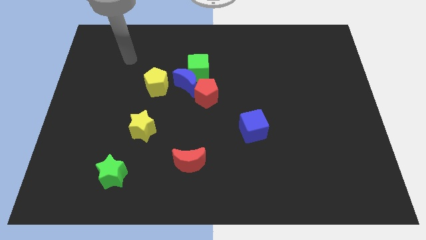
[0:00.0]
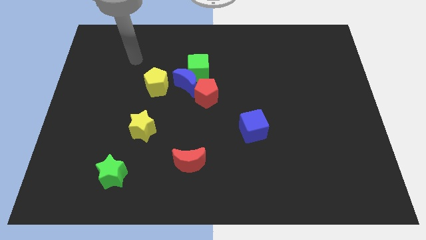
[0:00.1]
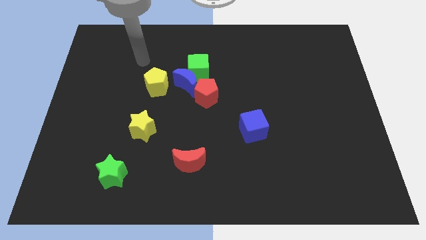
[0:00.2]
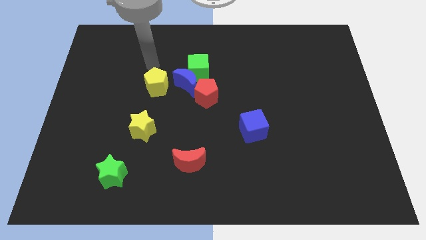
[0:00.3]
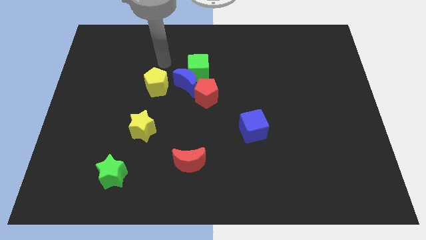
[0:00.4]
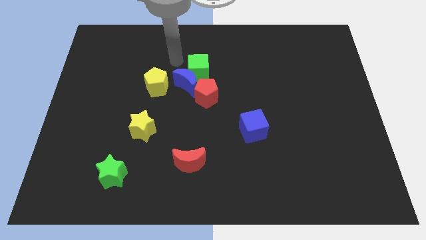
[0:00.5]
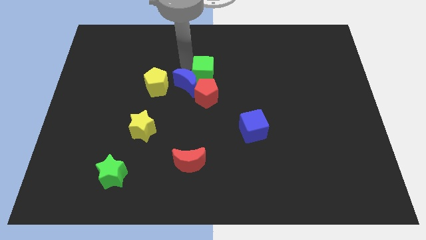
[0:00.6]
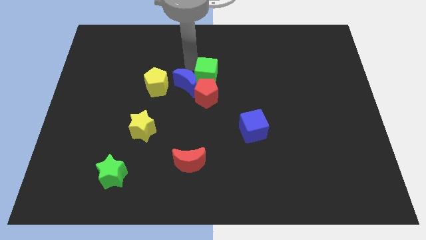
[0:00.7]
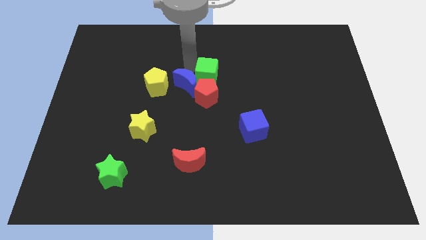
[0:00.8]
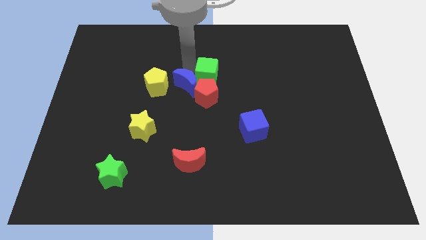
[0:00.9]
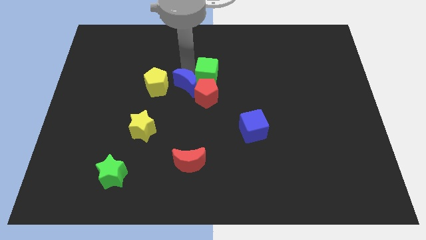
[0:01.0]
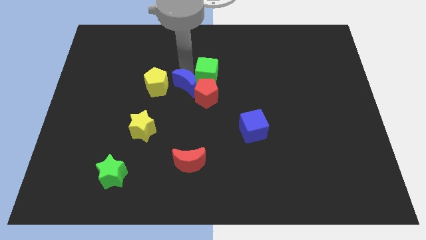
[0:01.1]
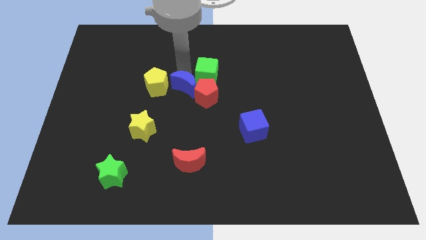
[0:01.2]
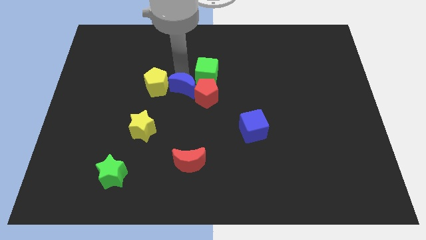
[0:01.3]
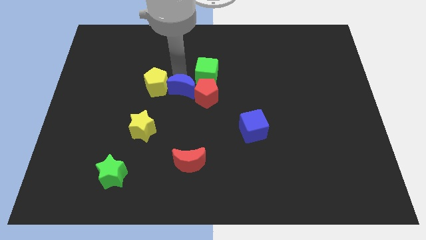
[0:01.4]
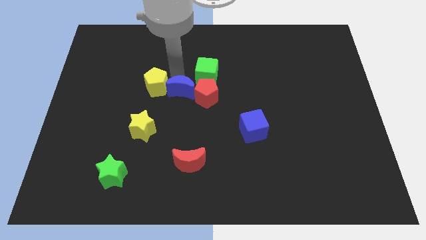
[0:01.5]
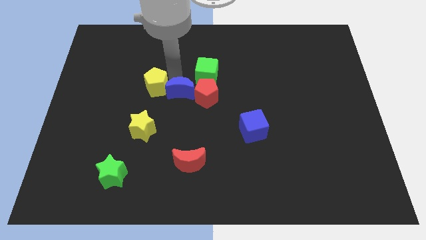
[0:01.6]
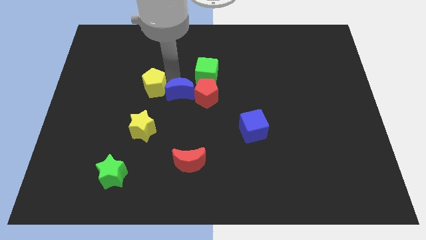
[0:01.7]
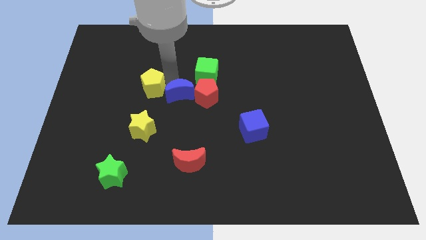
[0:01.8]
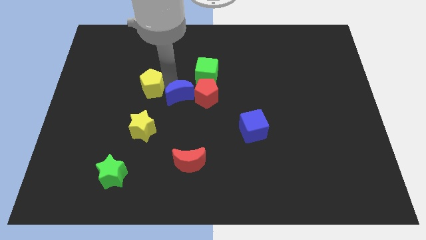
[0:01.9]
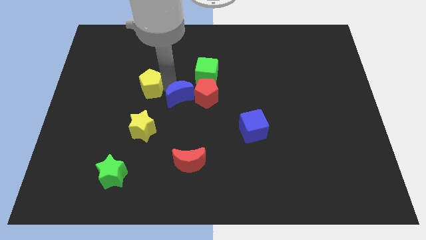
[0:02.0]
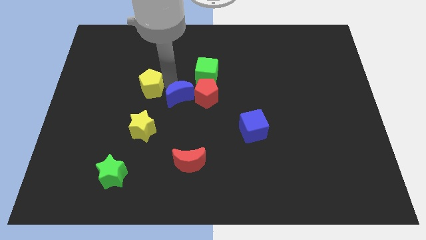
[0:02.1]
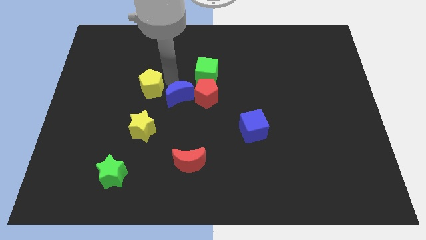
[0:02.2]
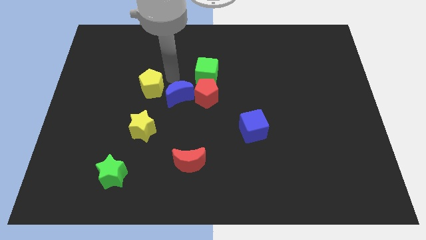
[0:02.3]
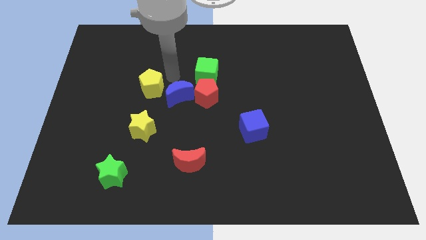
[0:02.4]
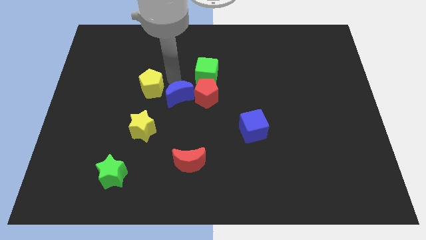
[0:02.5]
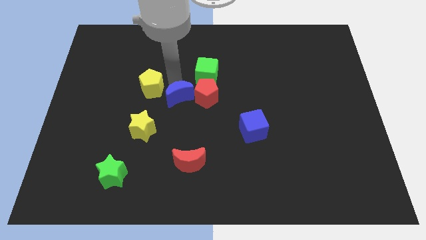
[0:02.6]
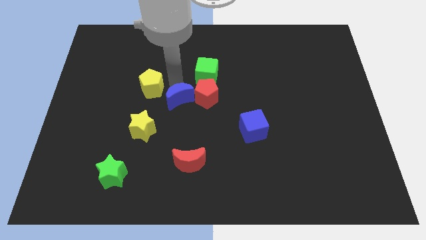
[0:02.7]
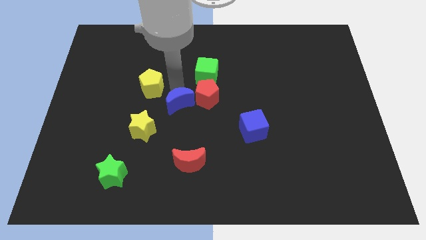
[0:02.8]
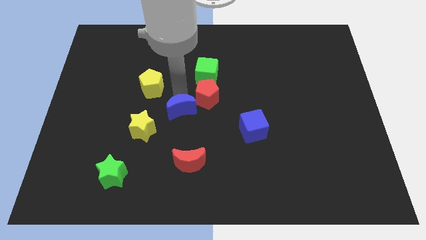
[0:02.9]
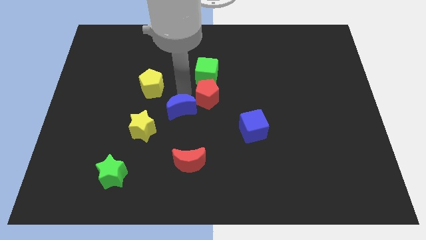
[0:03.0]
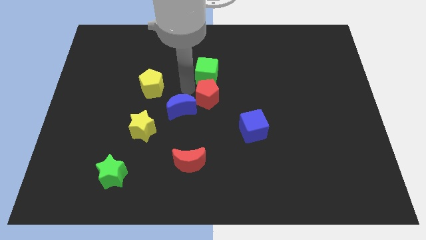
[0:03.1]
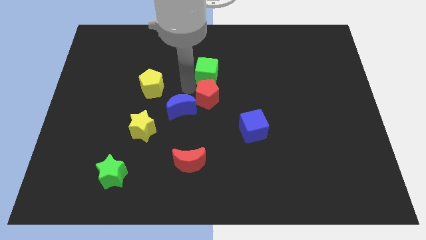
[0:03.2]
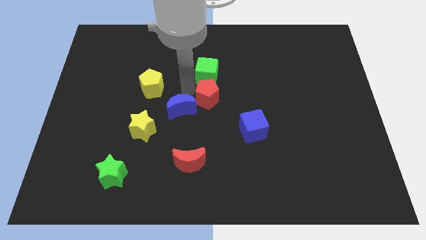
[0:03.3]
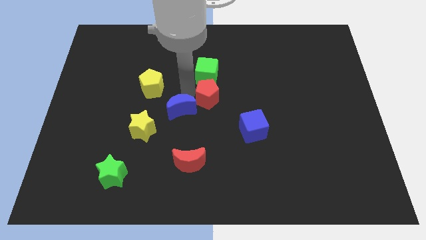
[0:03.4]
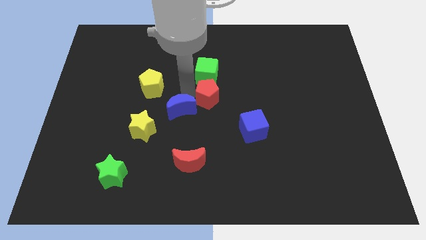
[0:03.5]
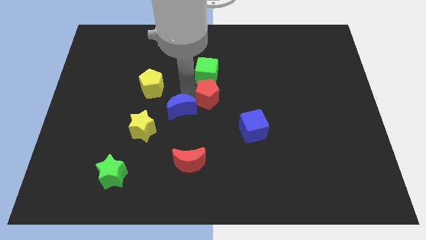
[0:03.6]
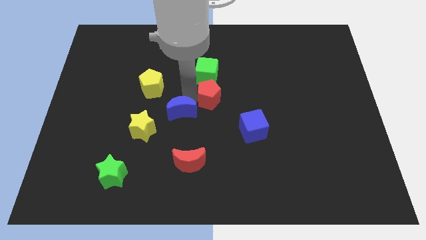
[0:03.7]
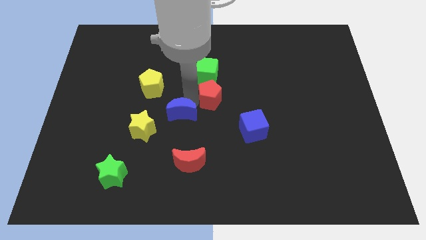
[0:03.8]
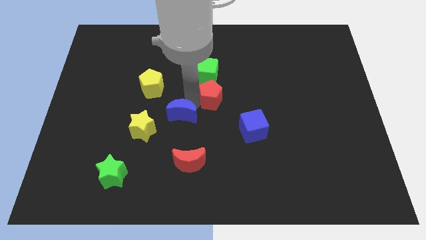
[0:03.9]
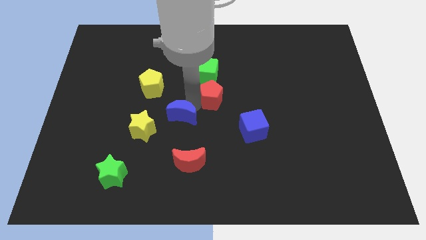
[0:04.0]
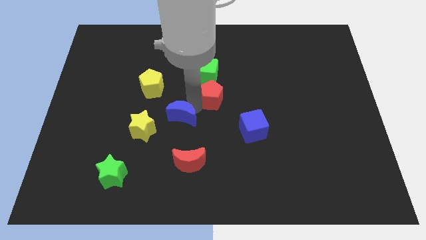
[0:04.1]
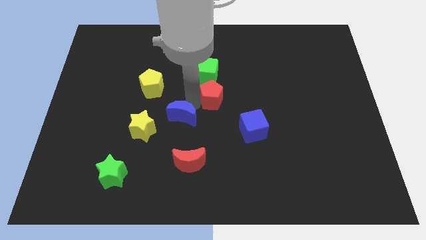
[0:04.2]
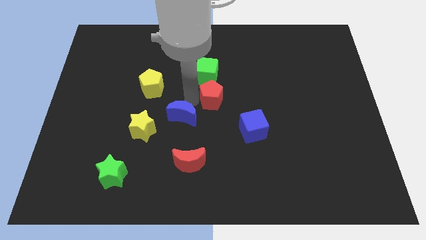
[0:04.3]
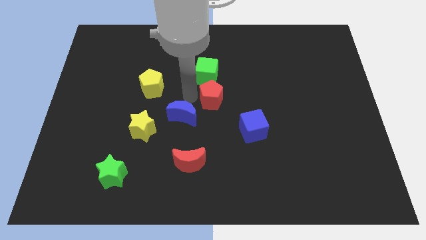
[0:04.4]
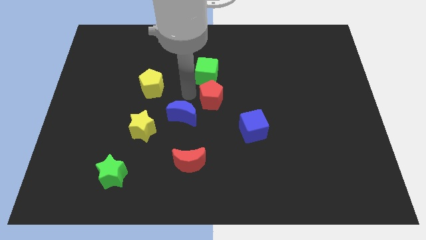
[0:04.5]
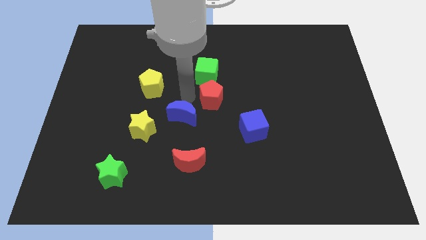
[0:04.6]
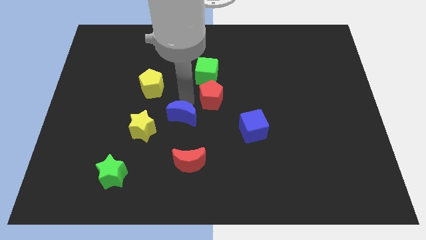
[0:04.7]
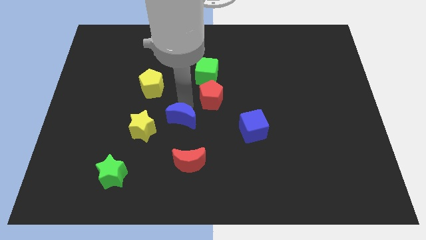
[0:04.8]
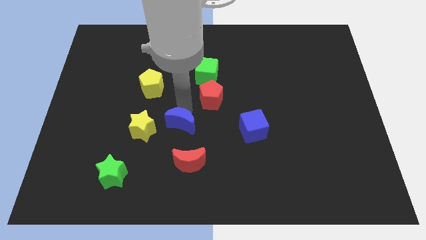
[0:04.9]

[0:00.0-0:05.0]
move the blue moon away from the green cube, red pentagon, and yellow pentagon

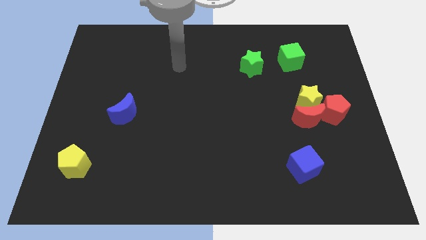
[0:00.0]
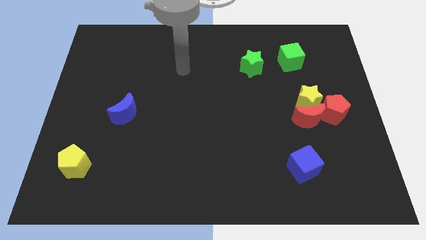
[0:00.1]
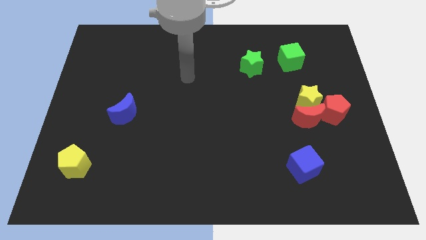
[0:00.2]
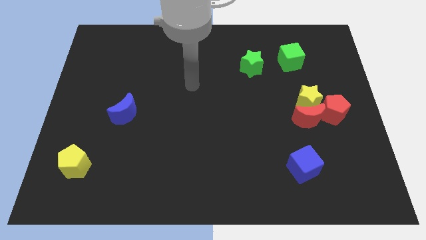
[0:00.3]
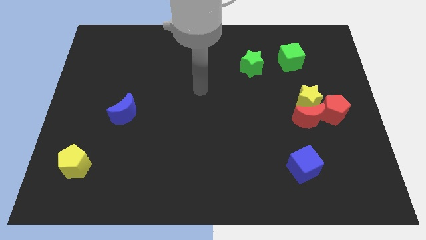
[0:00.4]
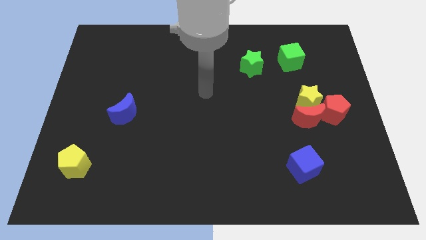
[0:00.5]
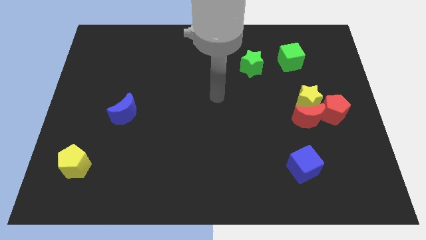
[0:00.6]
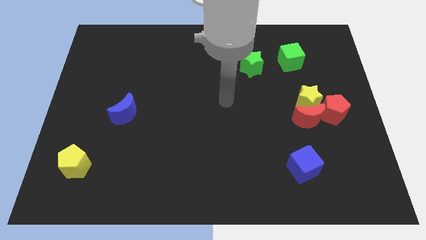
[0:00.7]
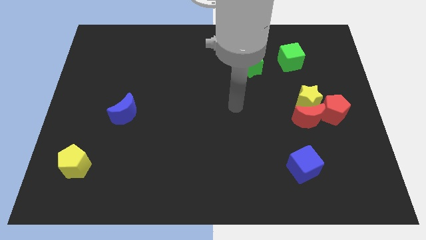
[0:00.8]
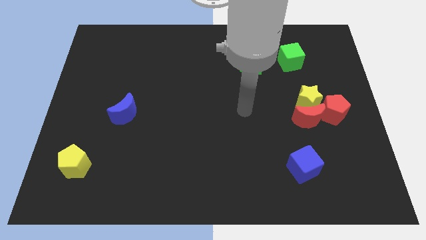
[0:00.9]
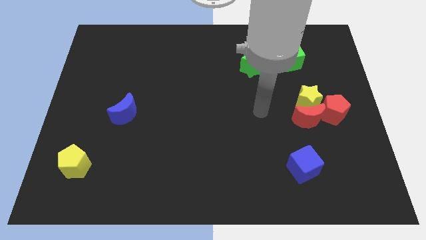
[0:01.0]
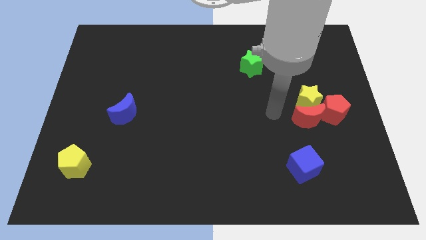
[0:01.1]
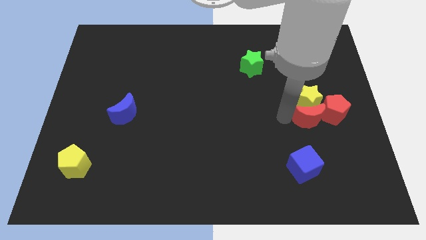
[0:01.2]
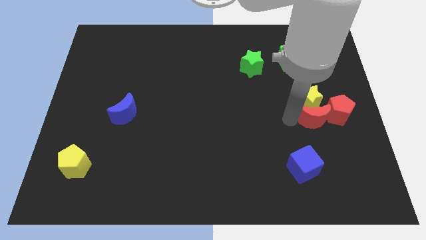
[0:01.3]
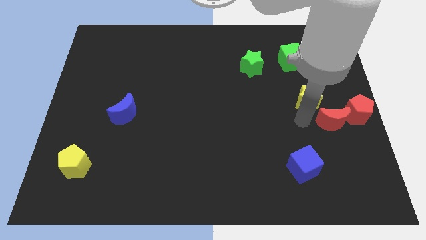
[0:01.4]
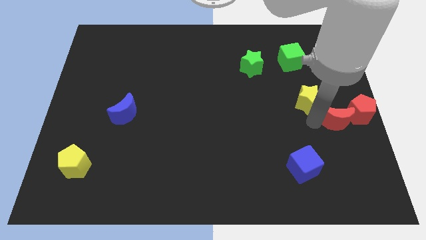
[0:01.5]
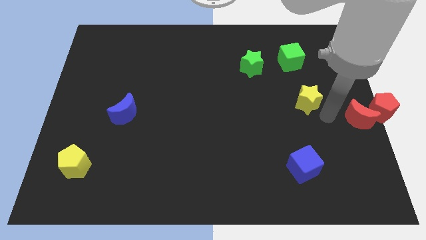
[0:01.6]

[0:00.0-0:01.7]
pull the yellow star apart from the red moon and red pentagon

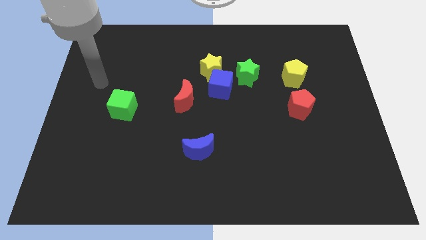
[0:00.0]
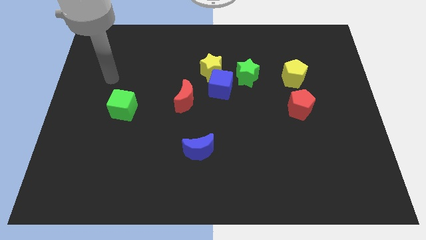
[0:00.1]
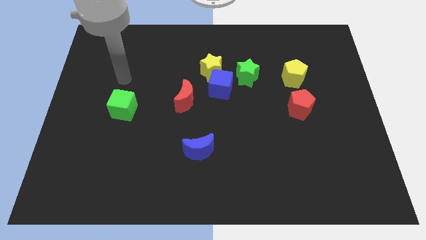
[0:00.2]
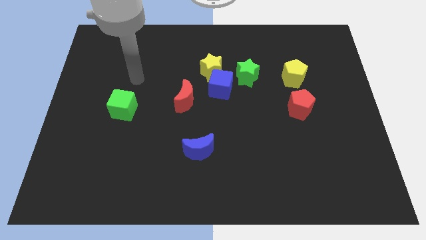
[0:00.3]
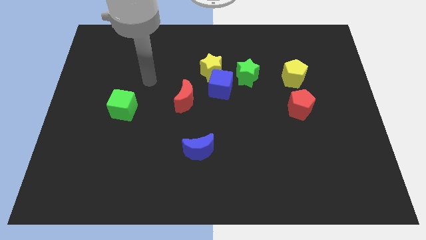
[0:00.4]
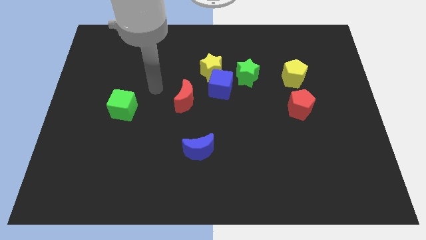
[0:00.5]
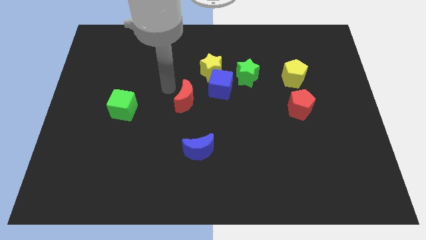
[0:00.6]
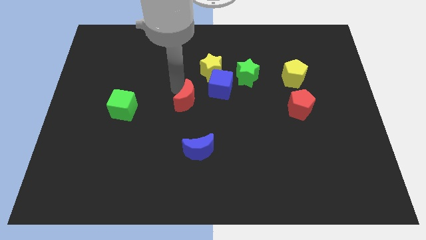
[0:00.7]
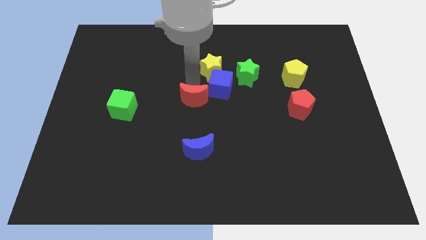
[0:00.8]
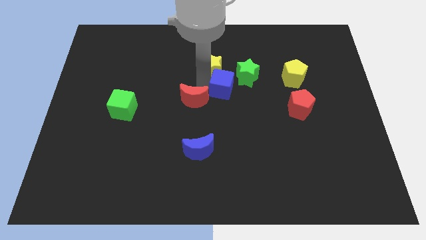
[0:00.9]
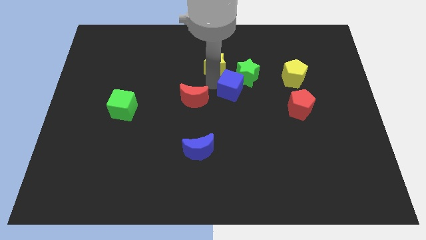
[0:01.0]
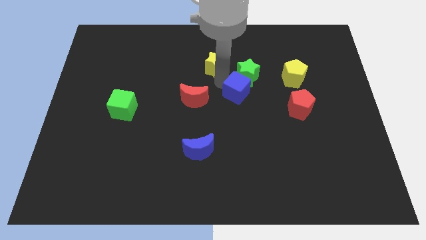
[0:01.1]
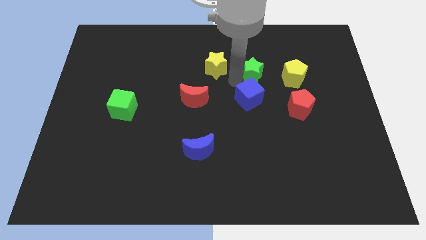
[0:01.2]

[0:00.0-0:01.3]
pull the yellow star apart from the blue cube and green star

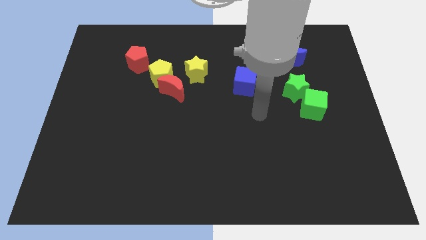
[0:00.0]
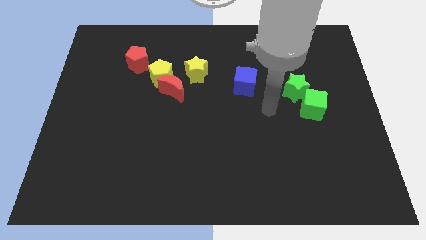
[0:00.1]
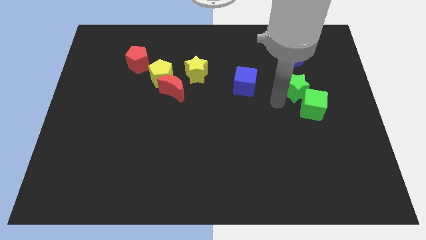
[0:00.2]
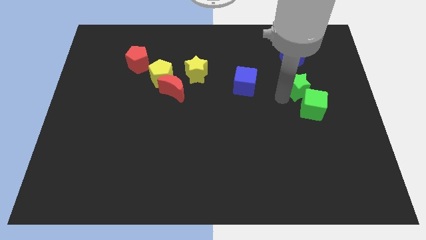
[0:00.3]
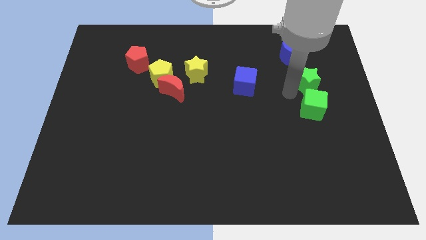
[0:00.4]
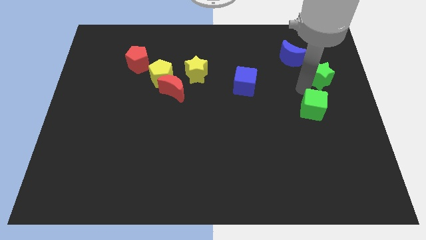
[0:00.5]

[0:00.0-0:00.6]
move the green cube away from the green star

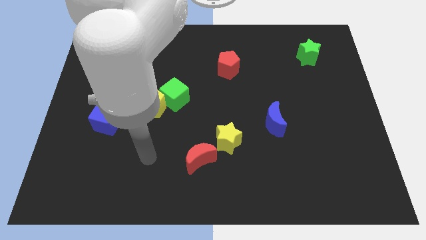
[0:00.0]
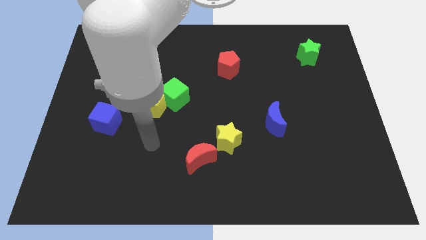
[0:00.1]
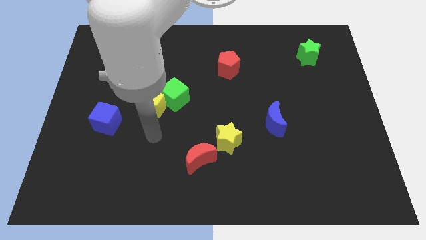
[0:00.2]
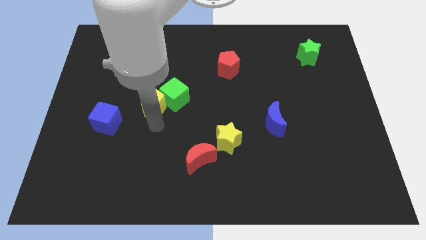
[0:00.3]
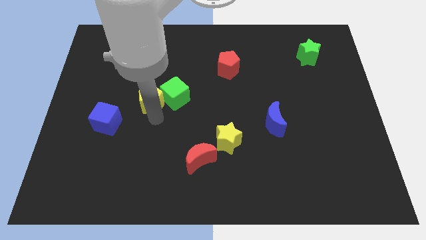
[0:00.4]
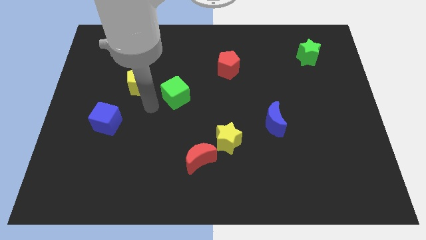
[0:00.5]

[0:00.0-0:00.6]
pull the green cube apart from the yellow pentagon
